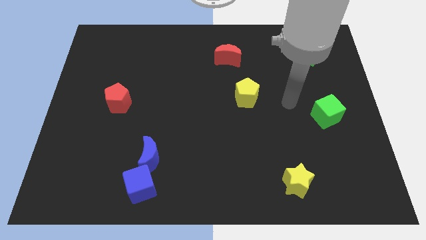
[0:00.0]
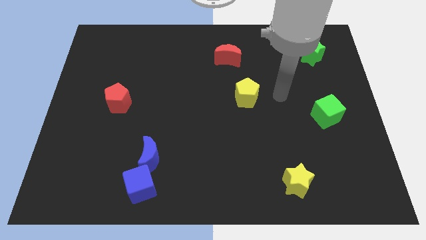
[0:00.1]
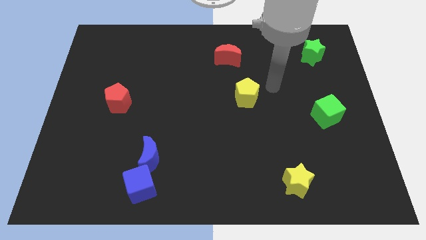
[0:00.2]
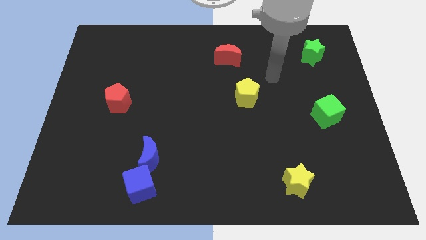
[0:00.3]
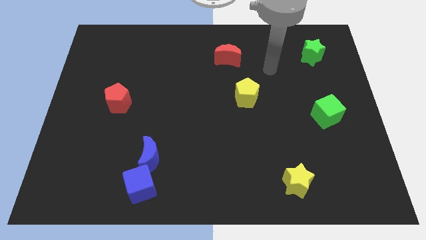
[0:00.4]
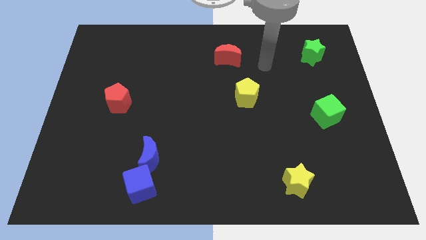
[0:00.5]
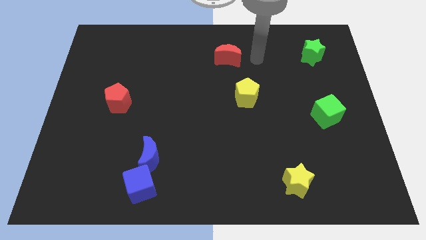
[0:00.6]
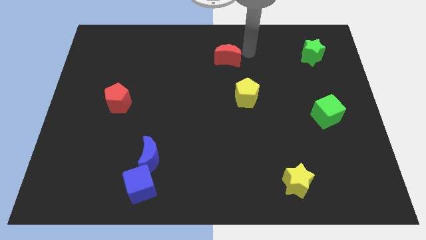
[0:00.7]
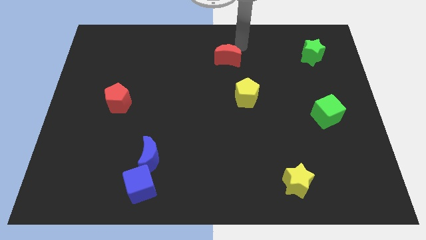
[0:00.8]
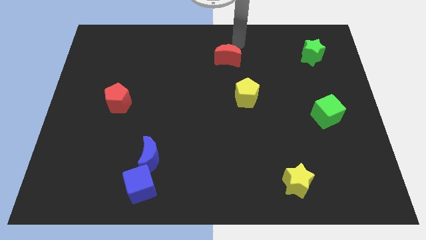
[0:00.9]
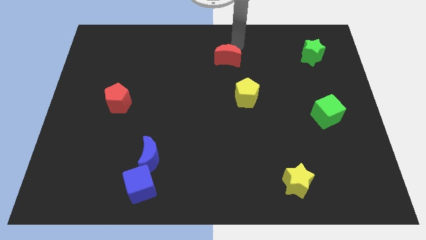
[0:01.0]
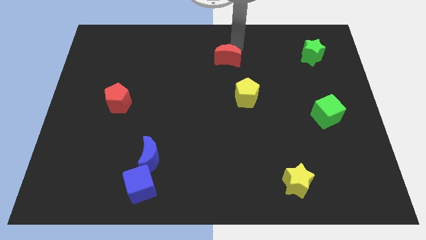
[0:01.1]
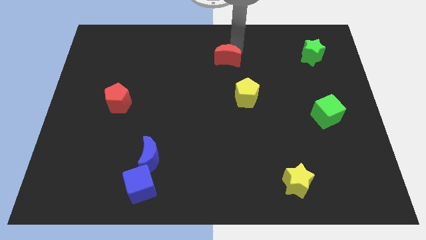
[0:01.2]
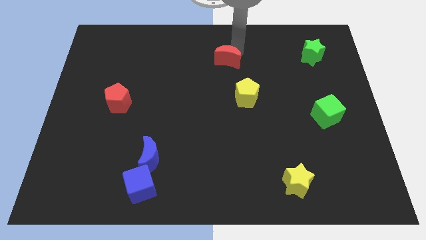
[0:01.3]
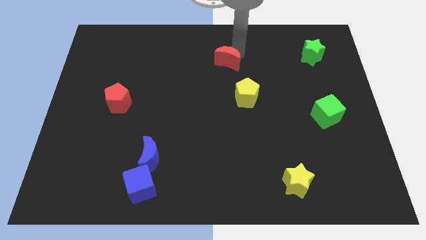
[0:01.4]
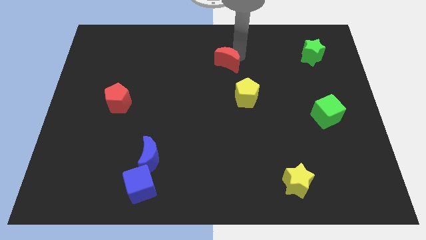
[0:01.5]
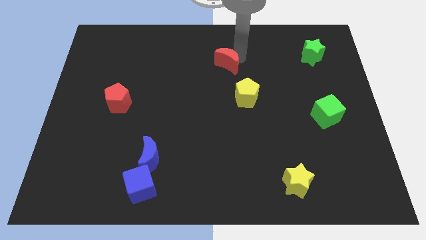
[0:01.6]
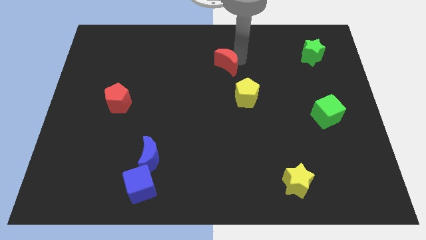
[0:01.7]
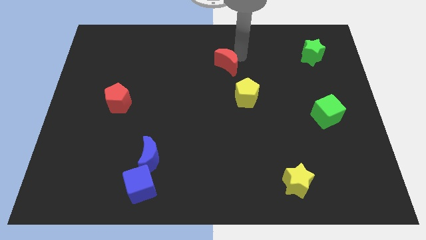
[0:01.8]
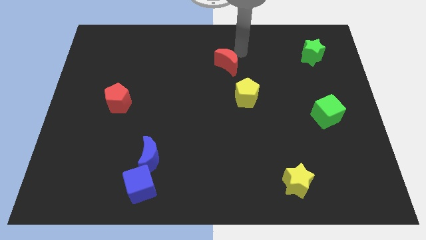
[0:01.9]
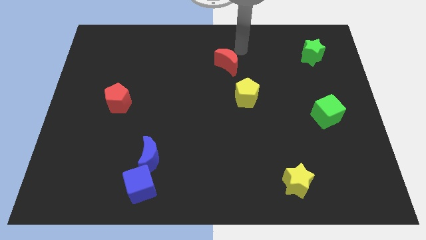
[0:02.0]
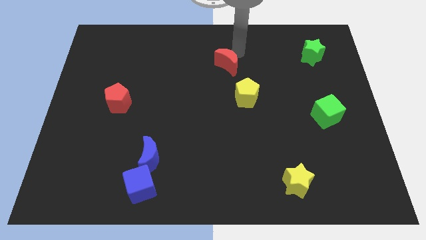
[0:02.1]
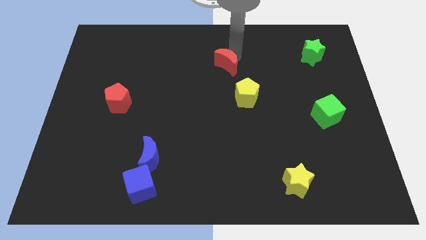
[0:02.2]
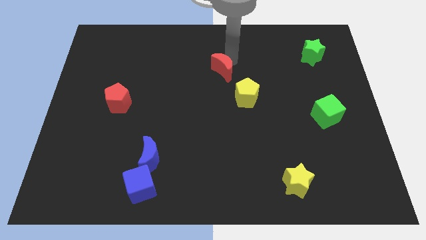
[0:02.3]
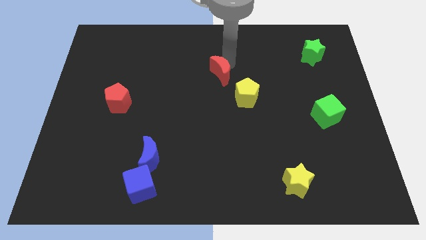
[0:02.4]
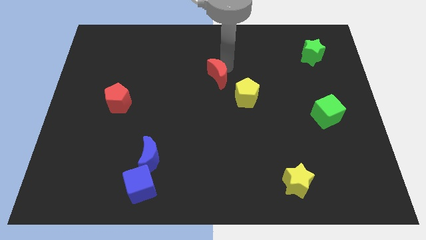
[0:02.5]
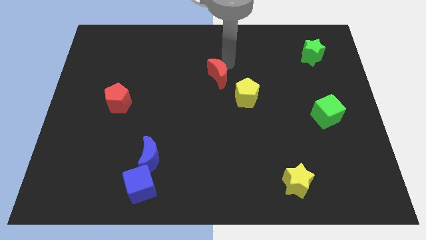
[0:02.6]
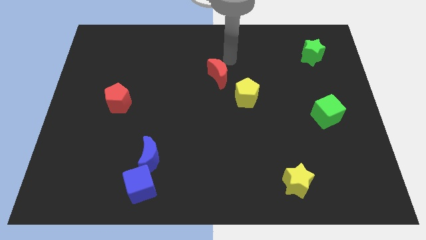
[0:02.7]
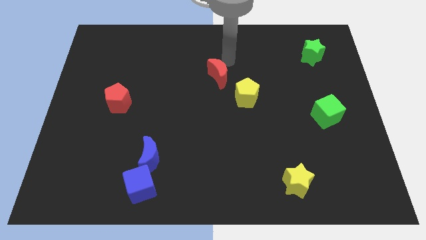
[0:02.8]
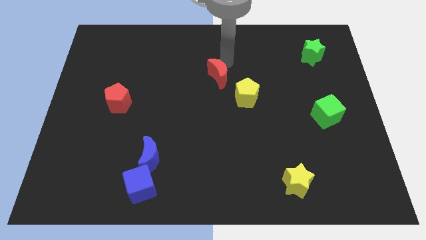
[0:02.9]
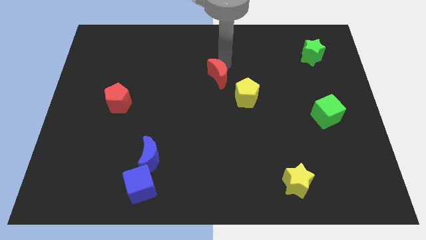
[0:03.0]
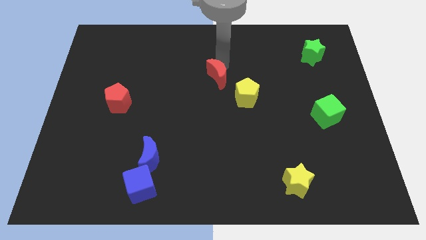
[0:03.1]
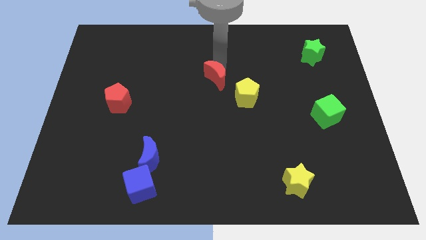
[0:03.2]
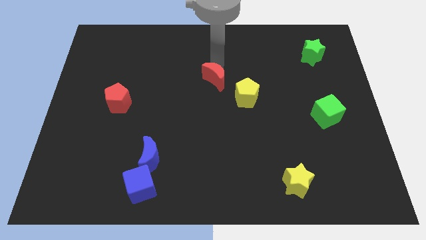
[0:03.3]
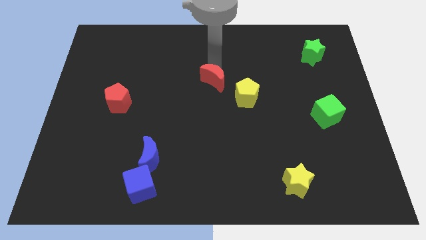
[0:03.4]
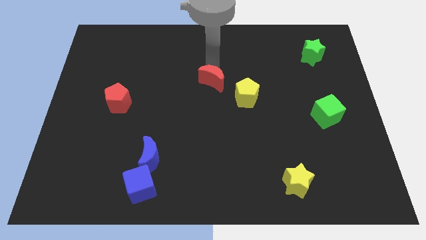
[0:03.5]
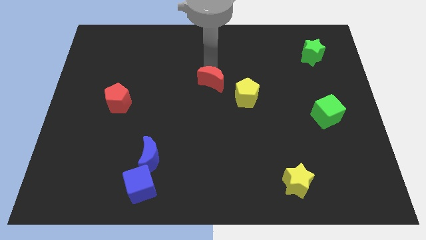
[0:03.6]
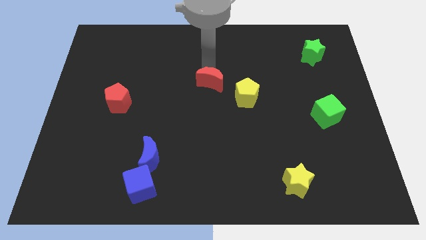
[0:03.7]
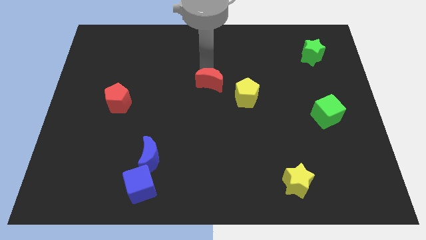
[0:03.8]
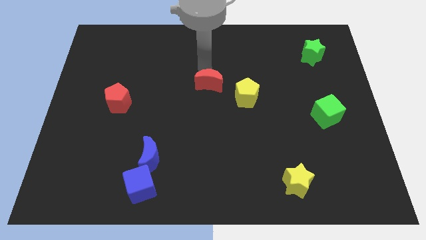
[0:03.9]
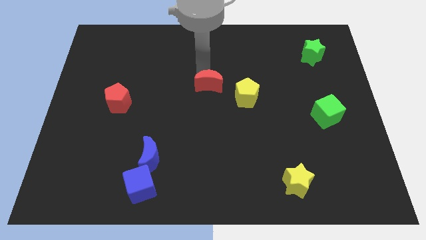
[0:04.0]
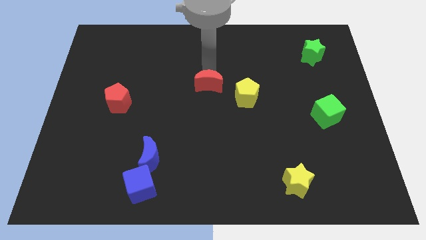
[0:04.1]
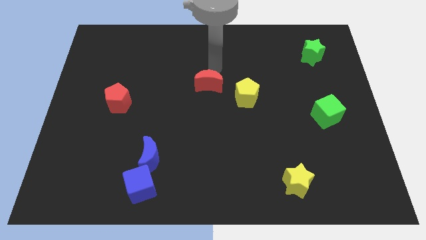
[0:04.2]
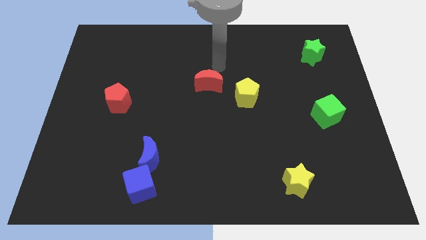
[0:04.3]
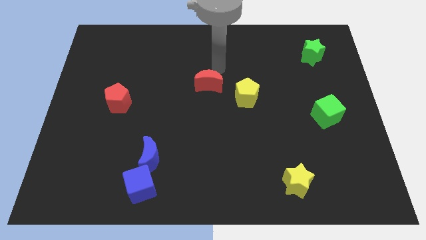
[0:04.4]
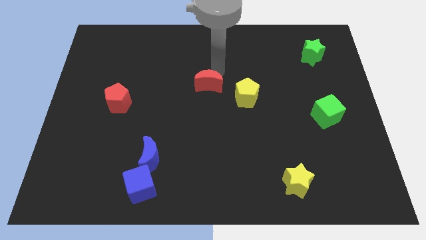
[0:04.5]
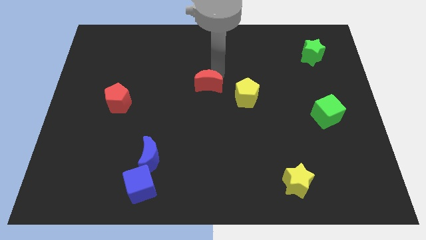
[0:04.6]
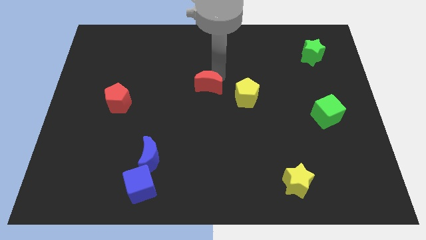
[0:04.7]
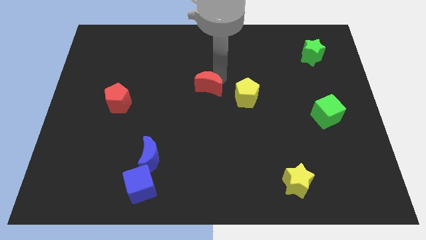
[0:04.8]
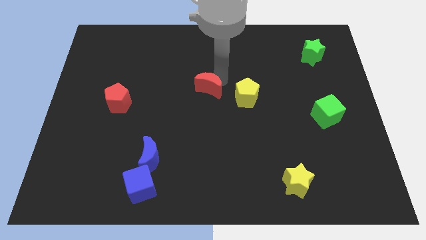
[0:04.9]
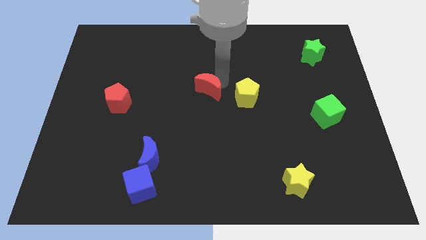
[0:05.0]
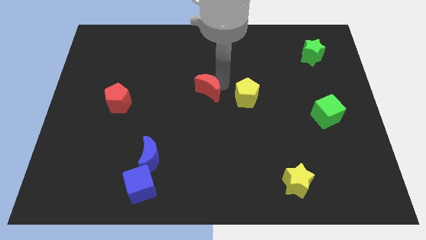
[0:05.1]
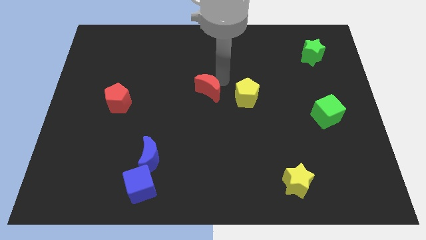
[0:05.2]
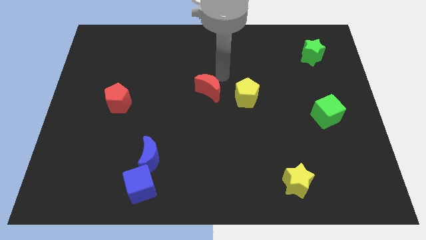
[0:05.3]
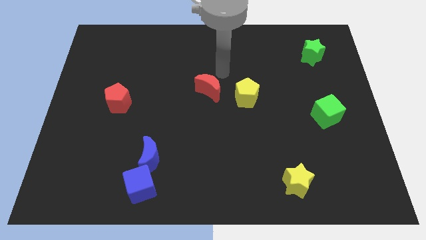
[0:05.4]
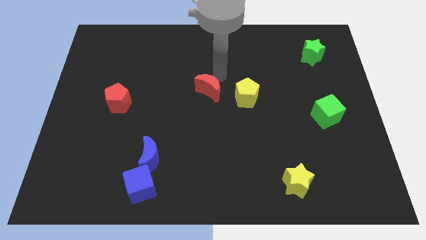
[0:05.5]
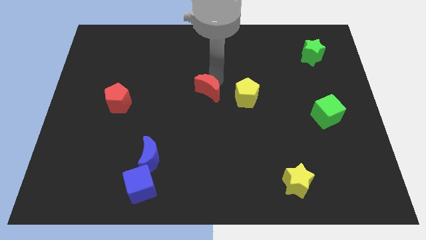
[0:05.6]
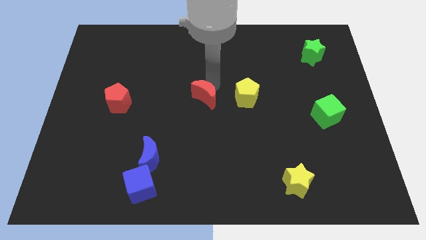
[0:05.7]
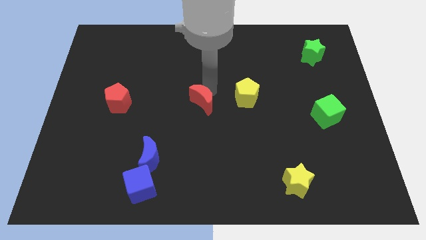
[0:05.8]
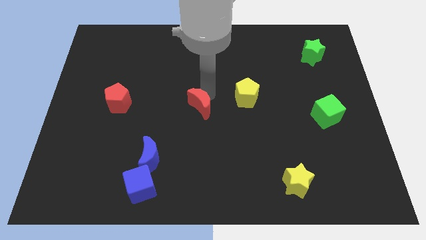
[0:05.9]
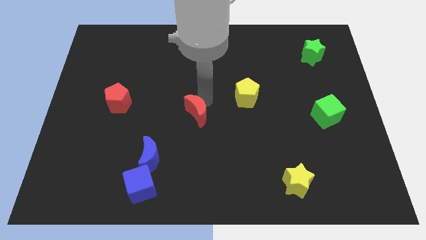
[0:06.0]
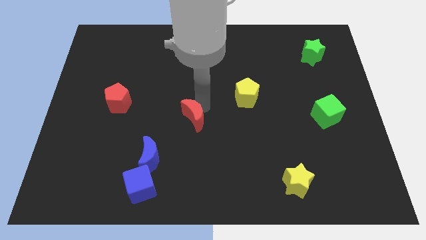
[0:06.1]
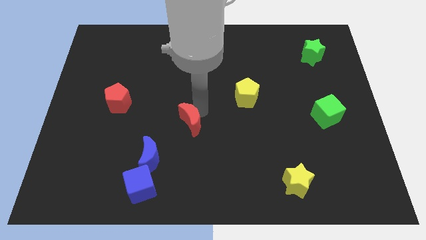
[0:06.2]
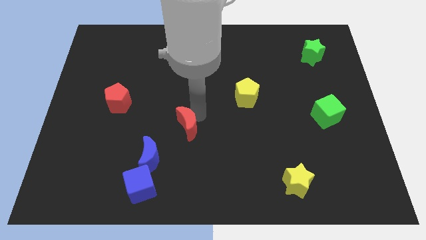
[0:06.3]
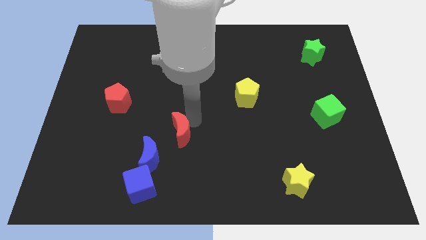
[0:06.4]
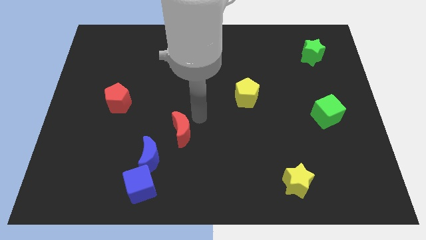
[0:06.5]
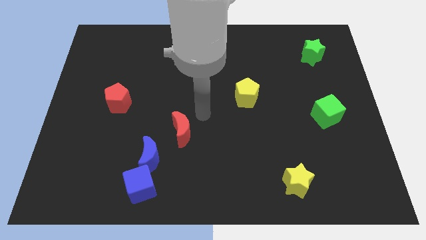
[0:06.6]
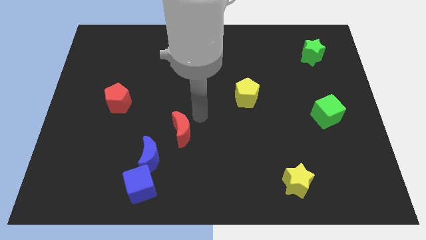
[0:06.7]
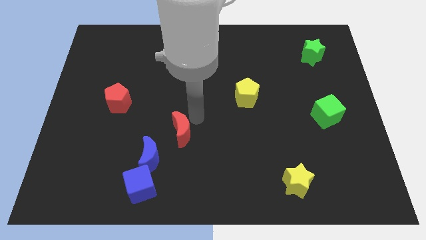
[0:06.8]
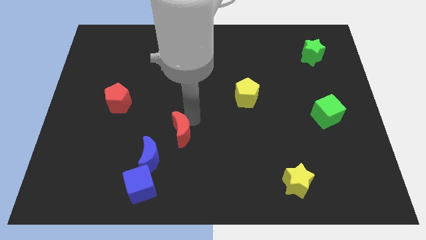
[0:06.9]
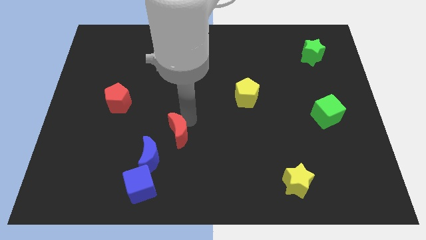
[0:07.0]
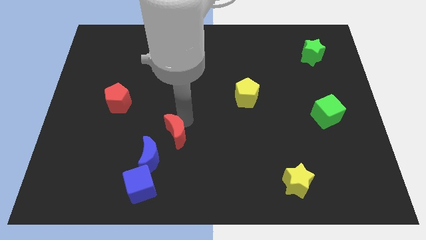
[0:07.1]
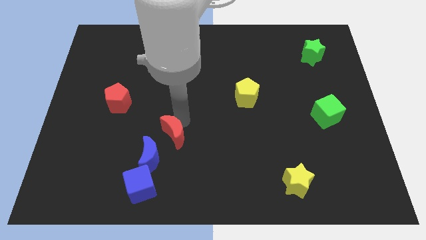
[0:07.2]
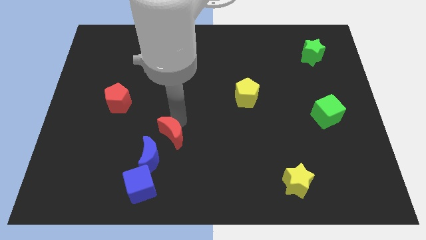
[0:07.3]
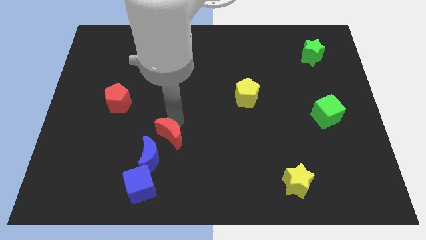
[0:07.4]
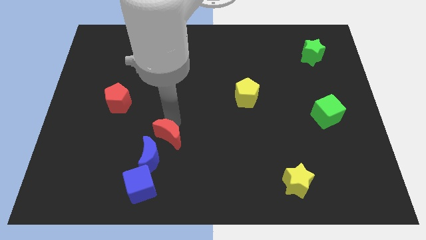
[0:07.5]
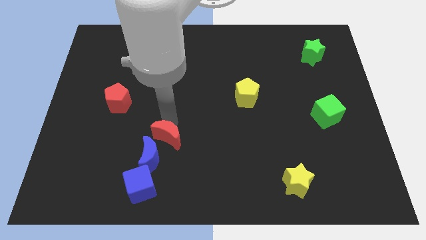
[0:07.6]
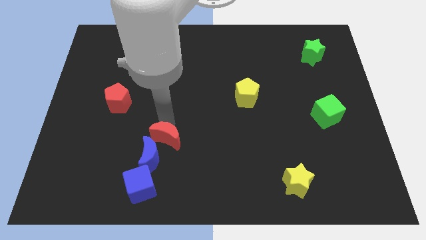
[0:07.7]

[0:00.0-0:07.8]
move the red moon next to the blue moon
